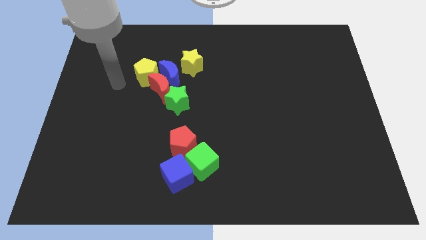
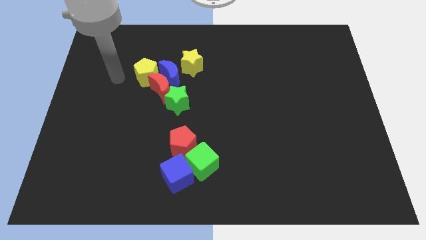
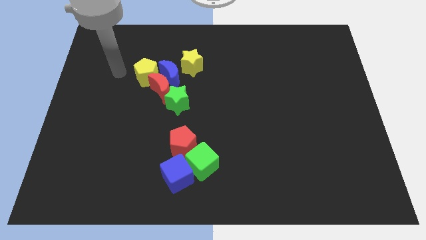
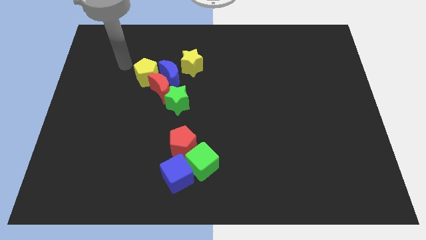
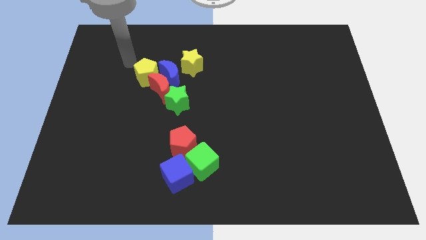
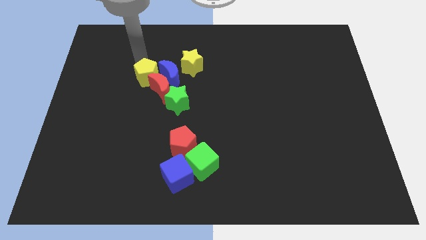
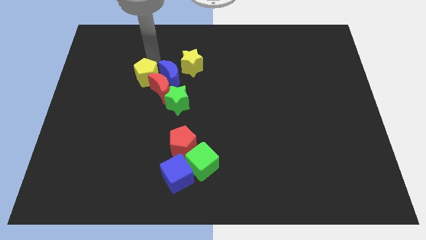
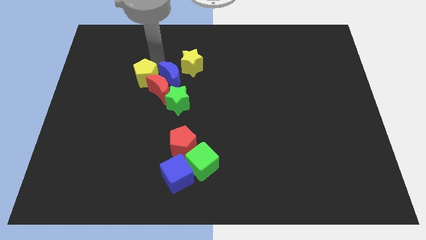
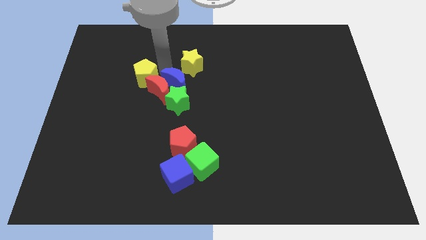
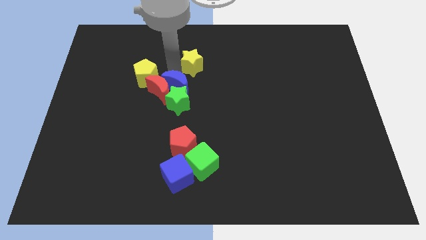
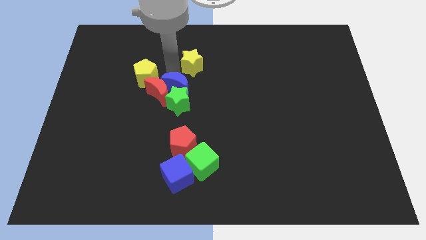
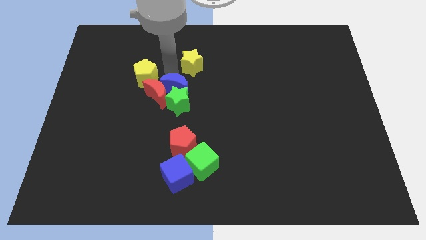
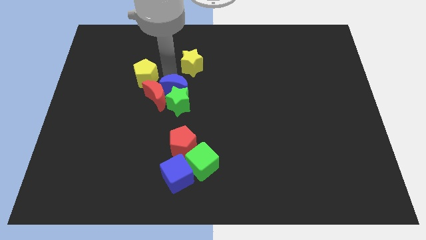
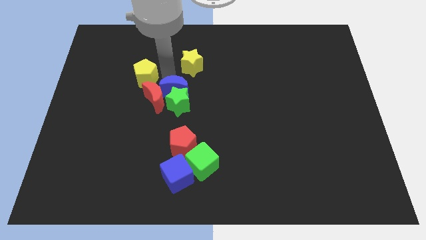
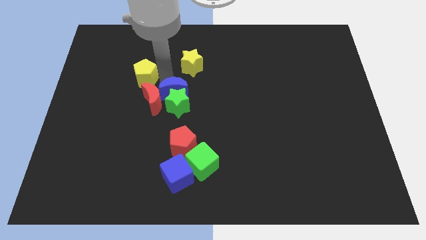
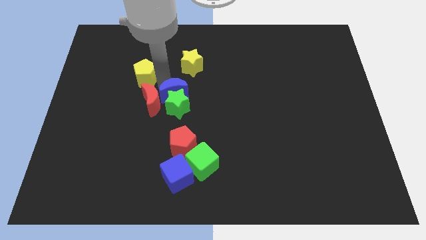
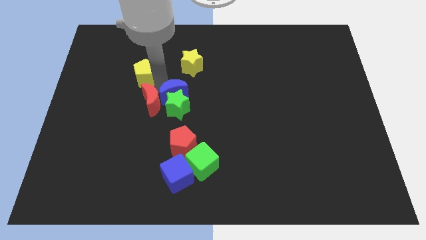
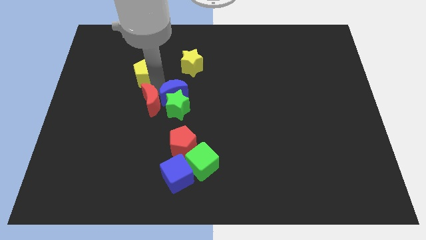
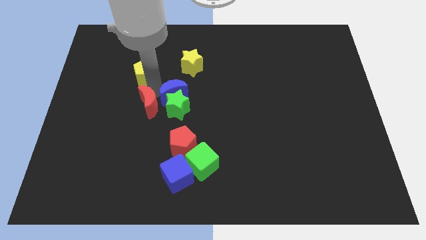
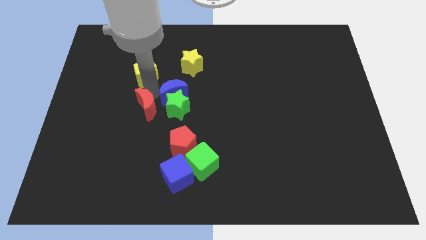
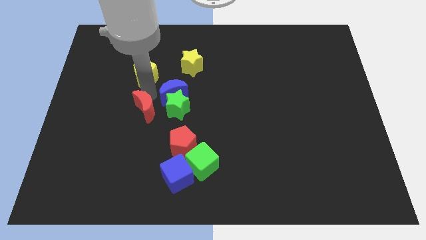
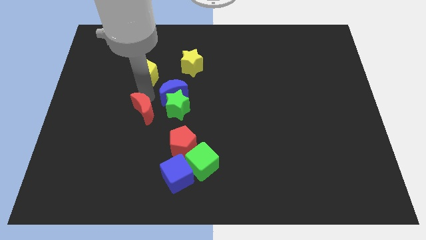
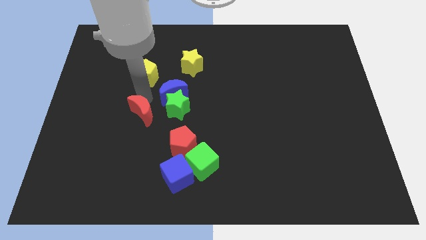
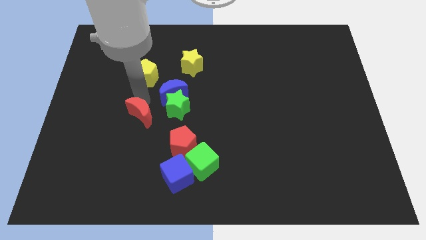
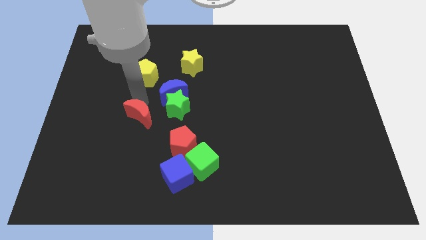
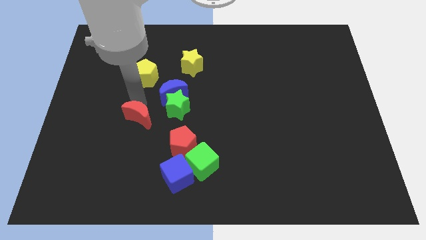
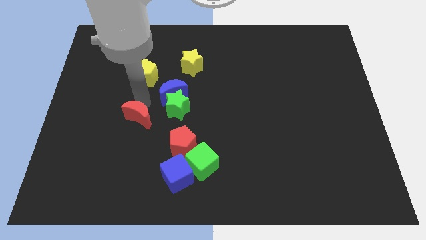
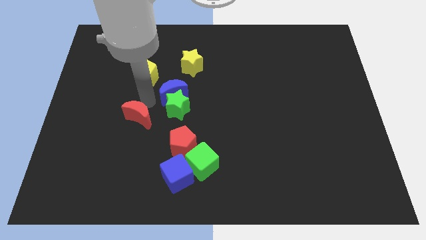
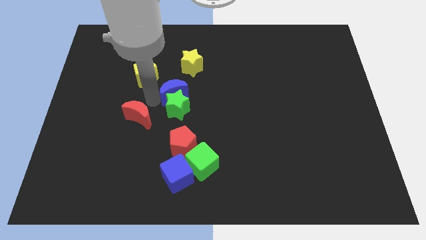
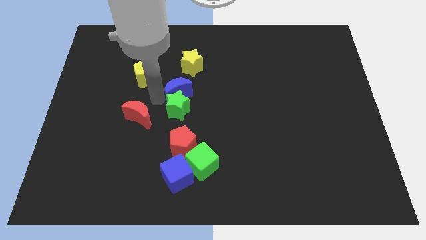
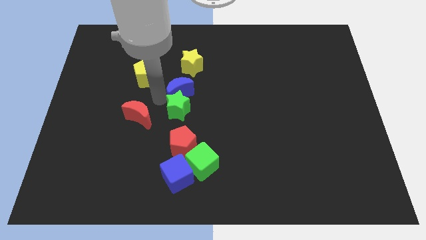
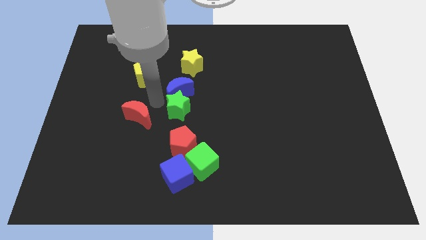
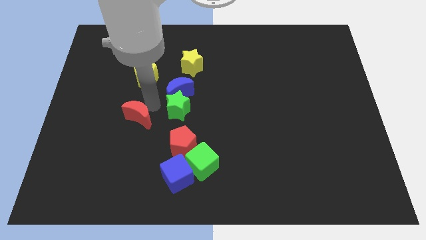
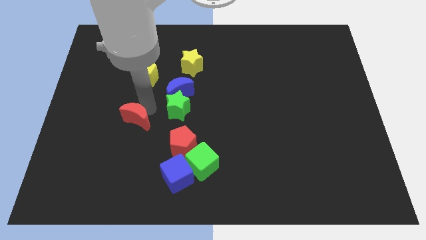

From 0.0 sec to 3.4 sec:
move the red moon away from the blue moon, green star, and yellow pentagon

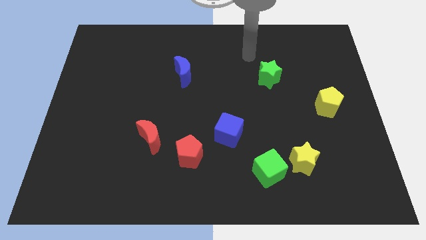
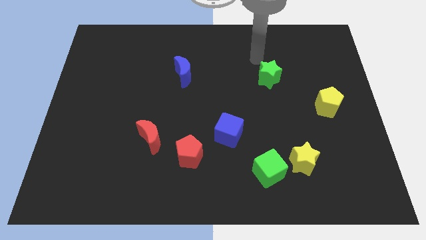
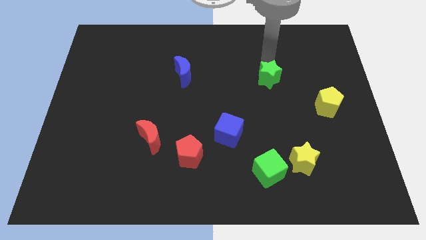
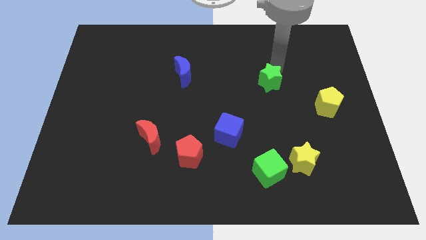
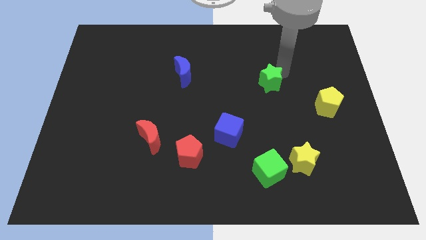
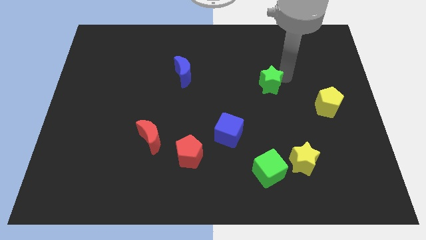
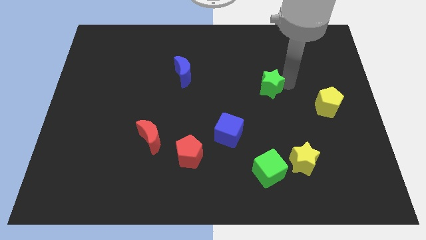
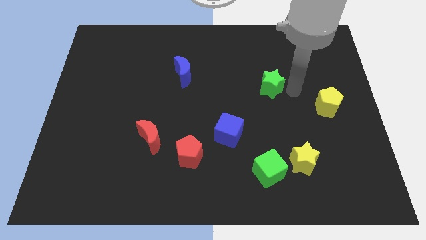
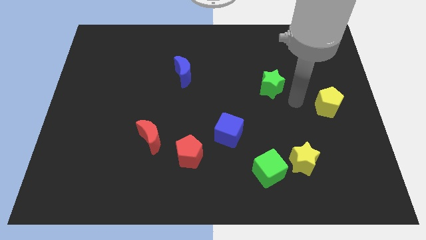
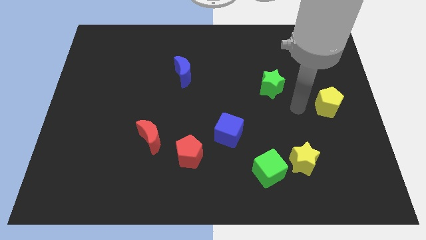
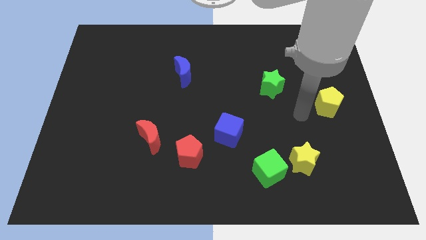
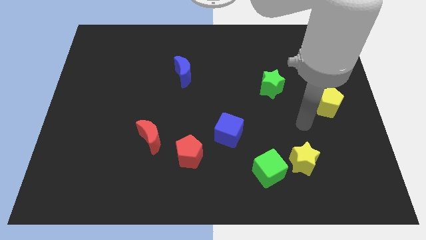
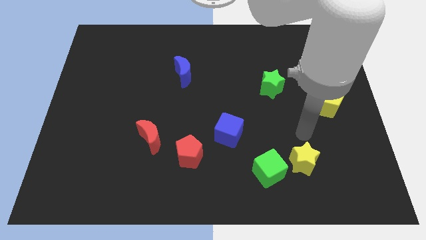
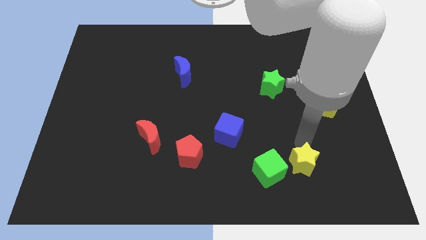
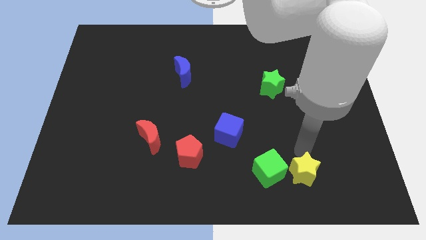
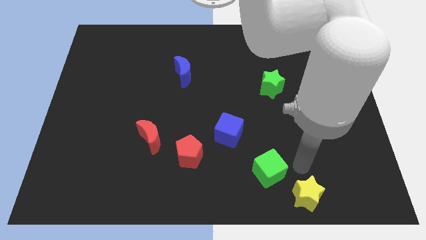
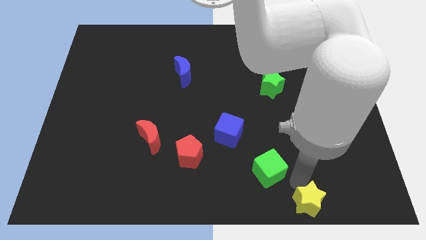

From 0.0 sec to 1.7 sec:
pull the green cube apart from the yellow star

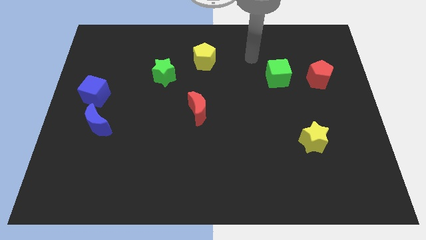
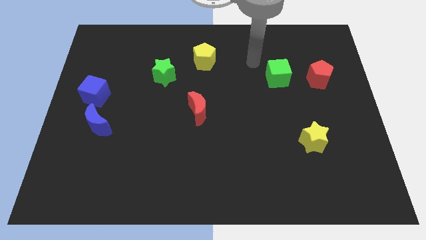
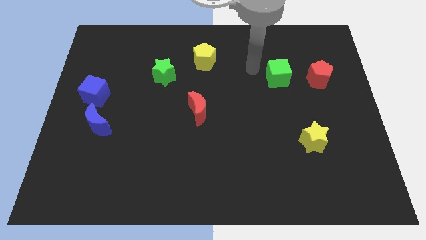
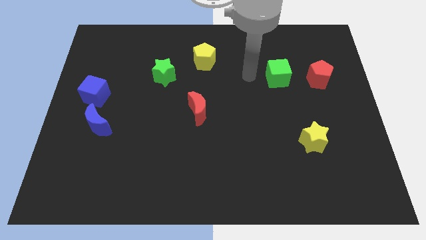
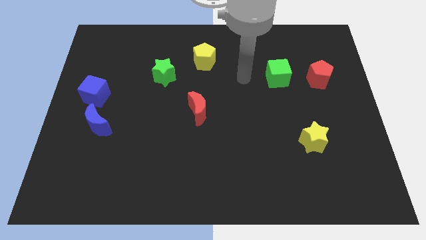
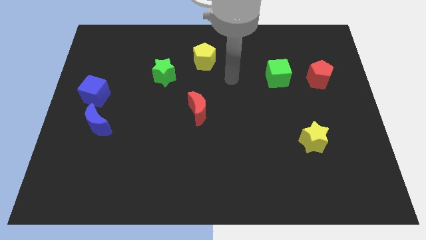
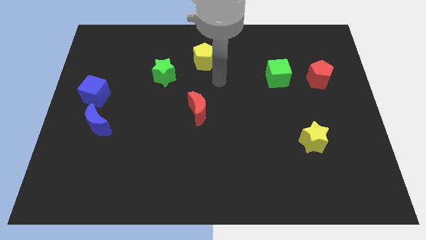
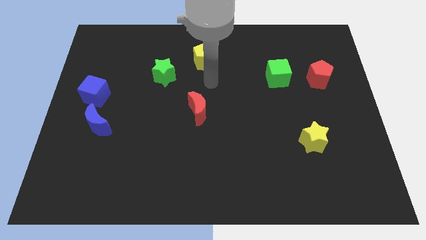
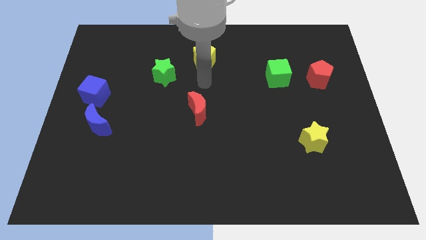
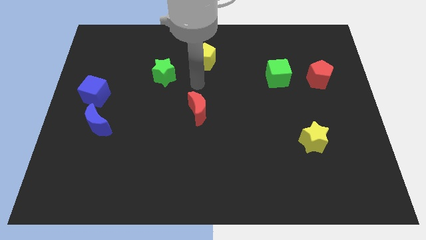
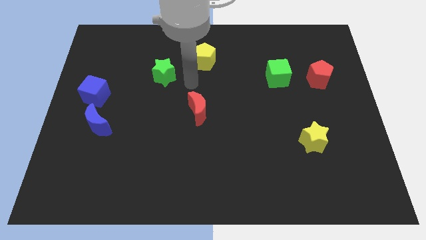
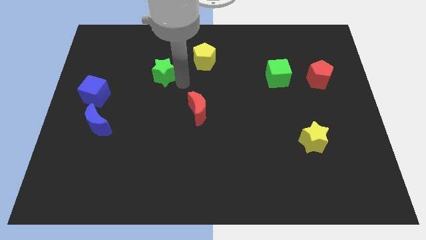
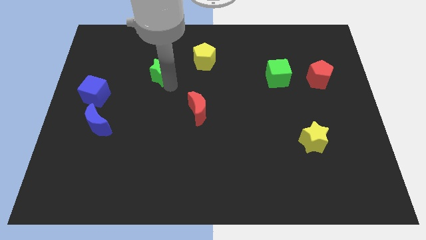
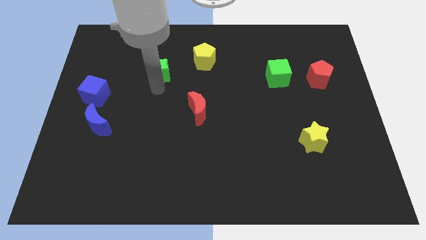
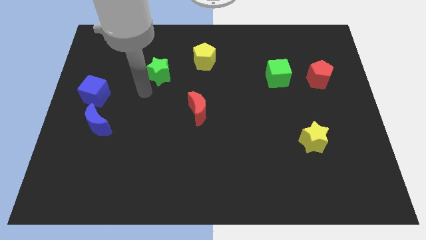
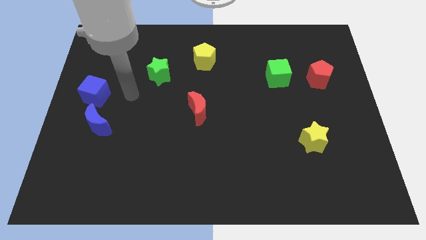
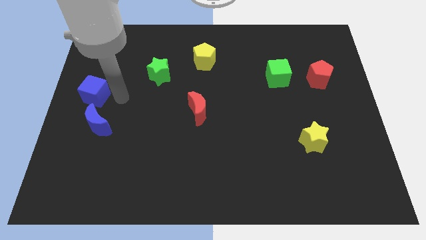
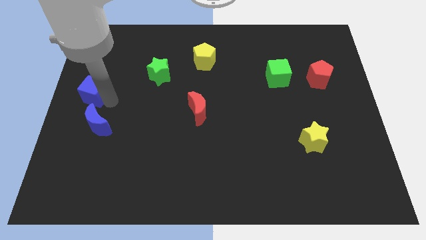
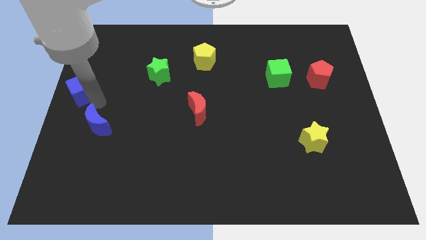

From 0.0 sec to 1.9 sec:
pull the blue moon apart from the blue cube

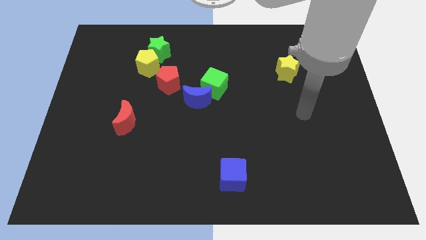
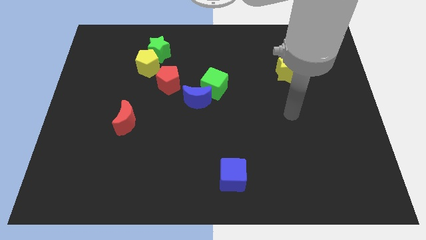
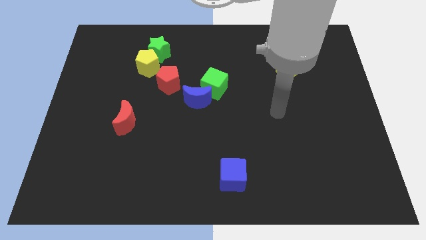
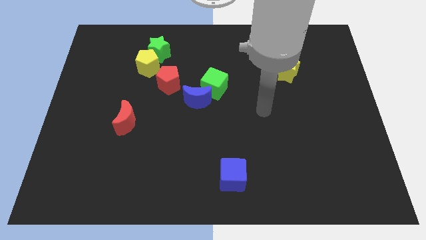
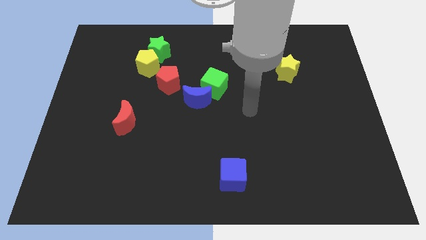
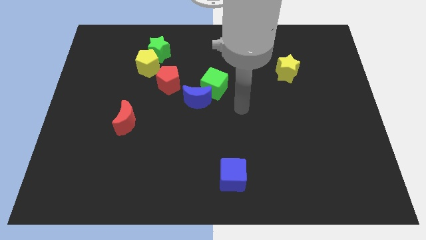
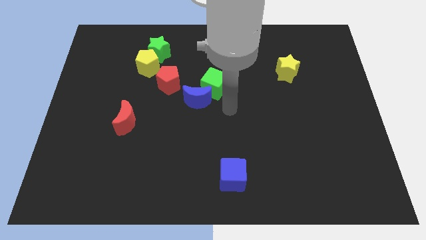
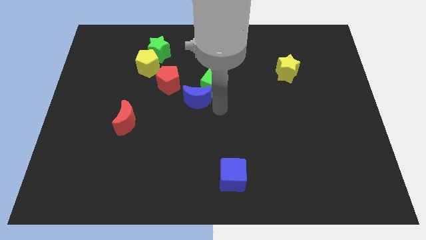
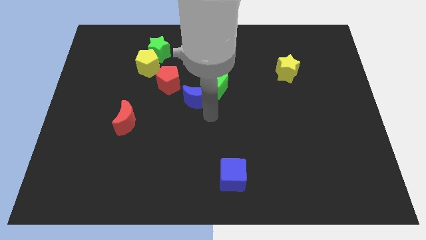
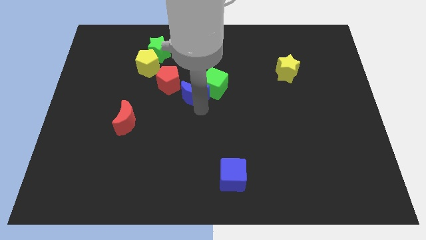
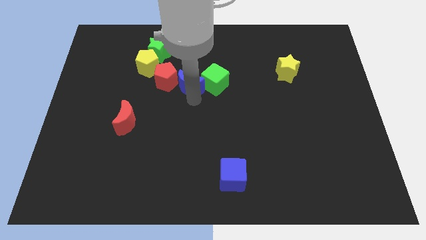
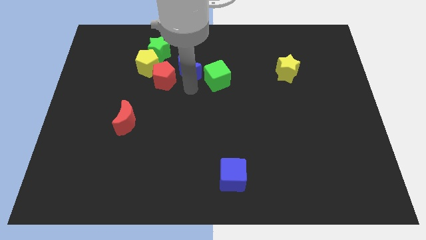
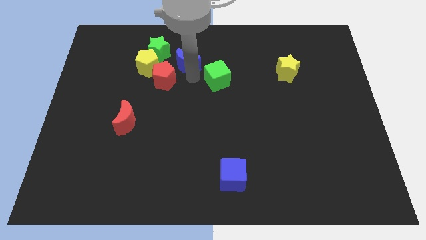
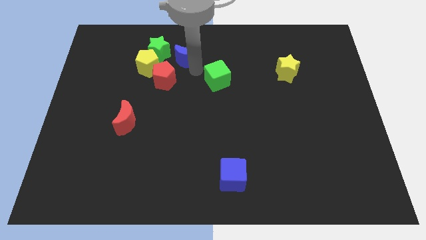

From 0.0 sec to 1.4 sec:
separate the green cube from the blue moon

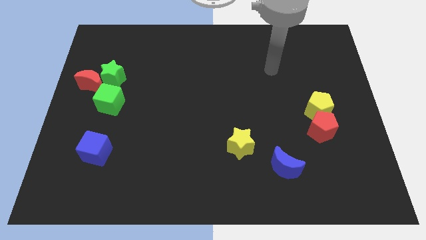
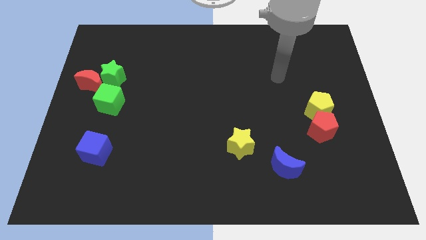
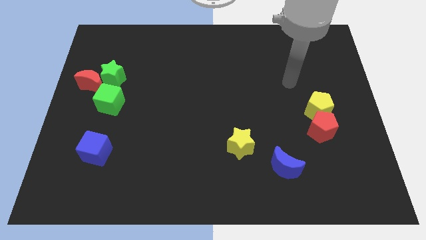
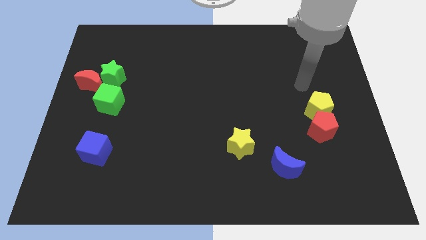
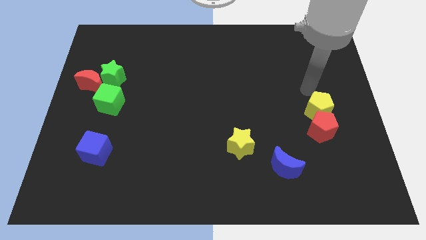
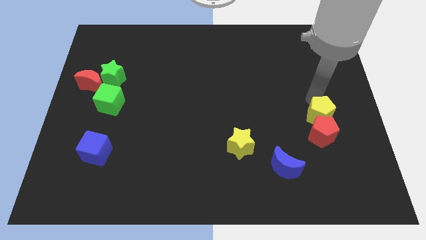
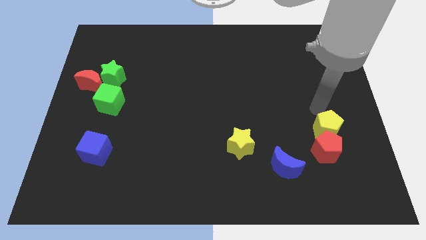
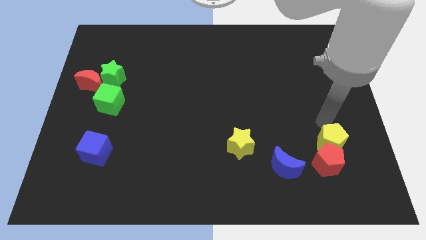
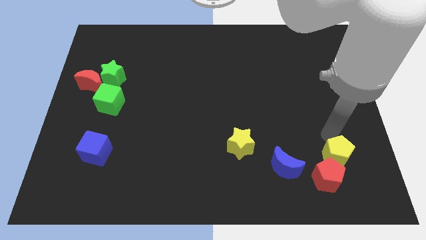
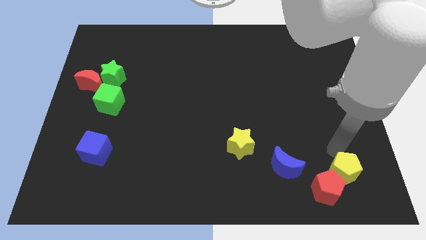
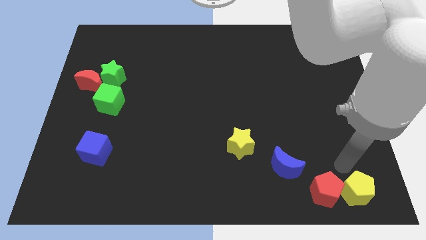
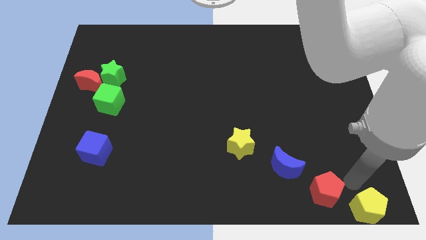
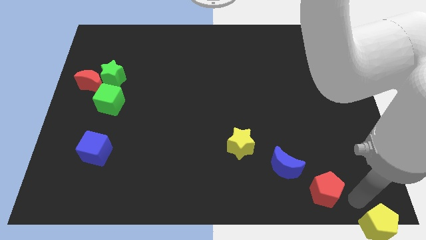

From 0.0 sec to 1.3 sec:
separate the red pentagon from the yellow pentagon
